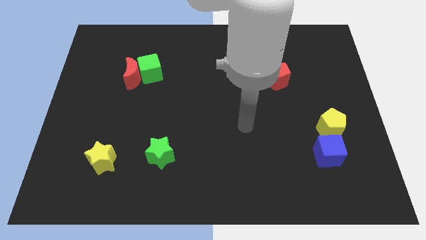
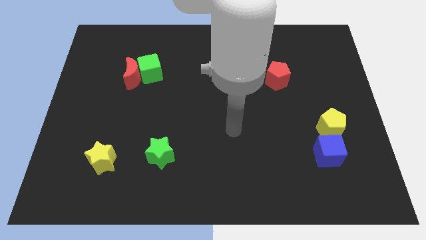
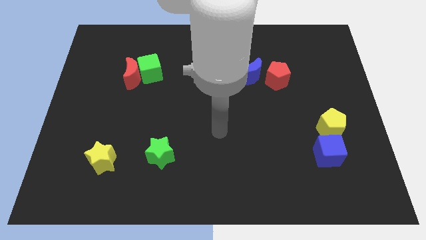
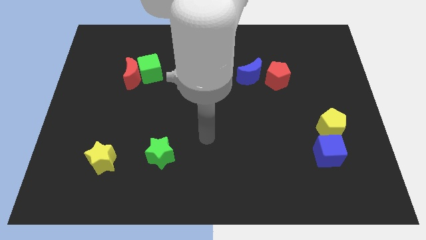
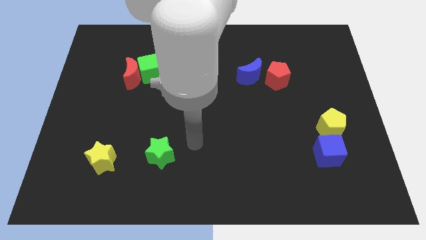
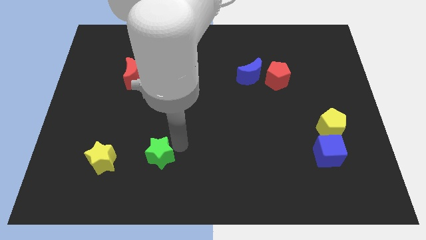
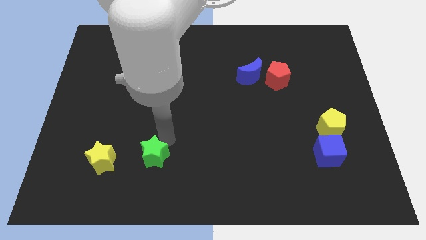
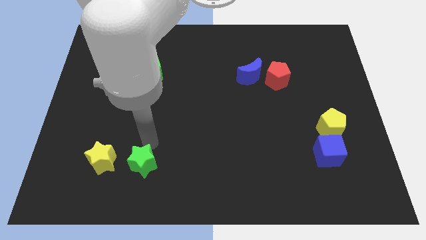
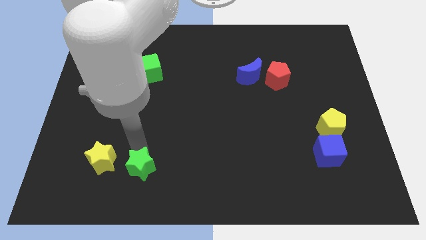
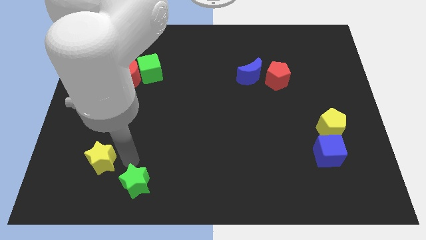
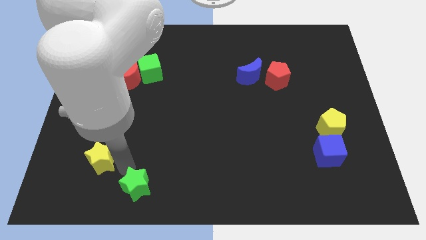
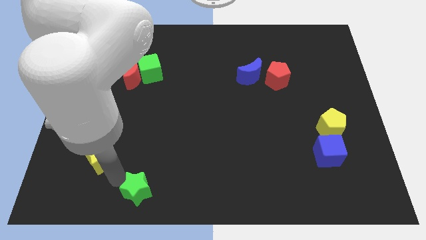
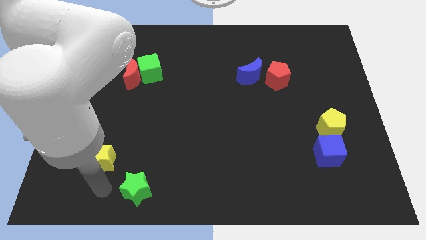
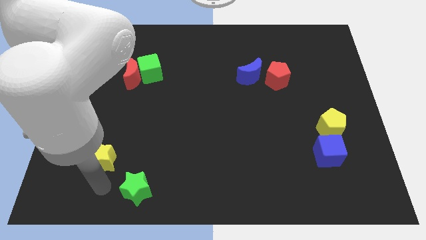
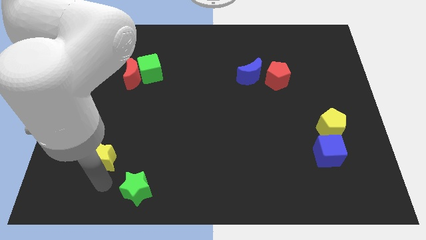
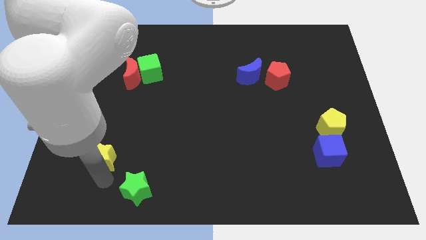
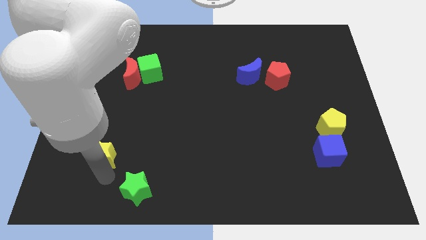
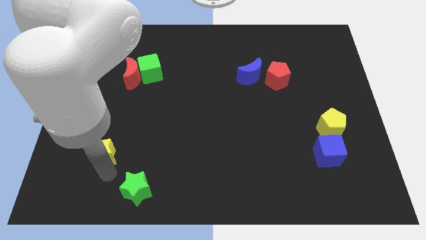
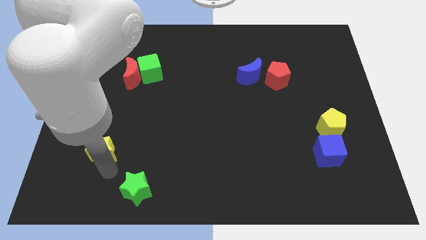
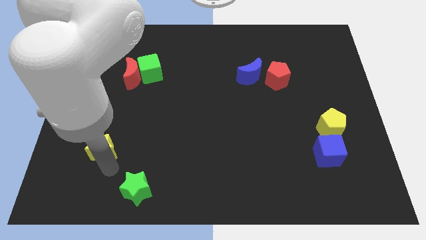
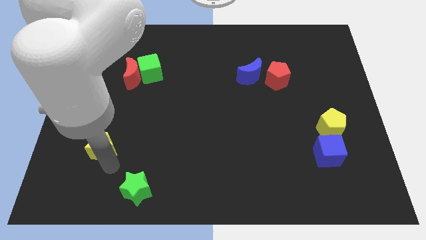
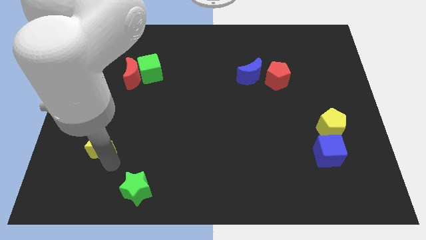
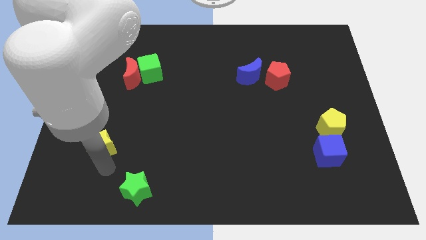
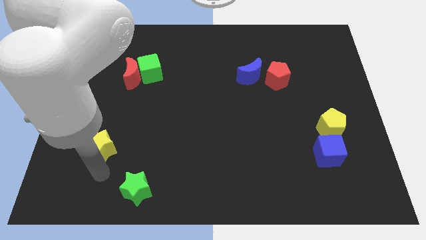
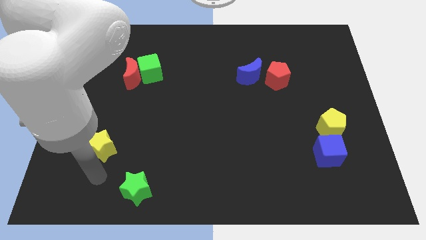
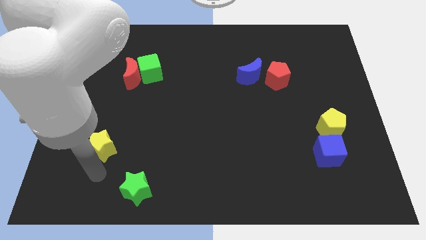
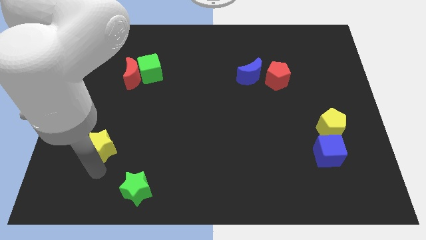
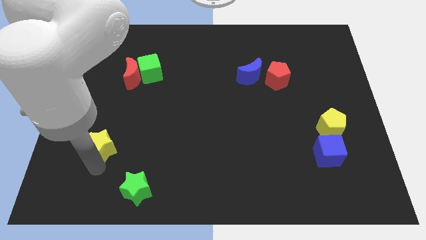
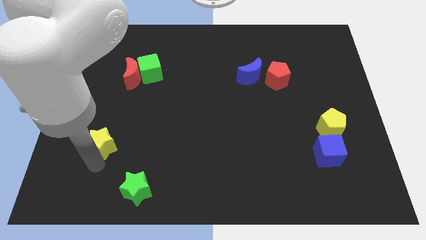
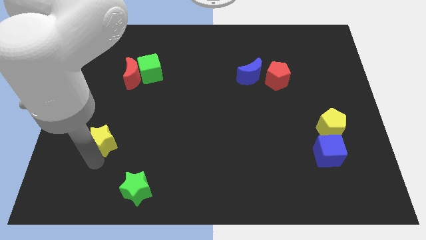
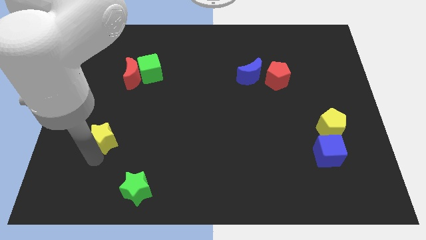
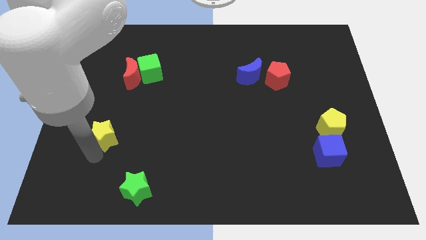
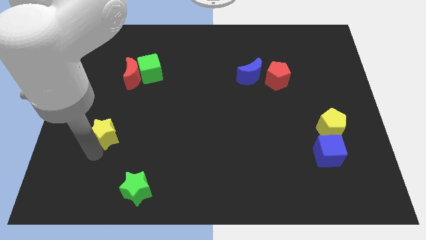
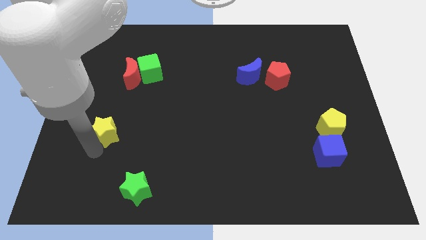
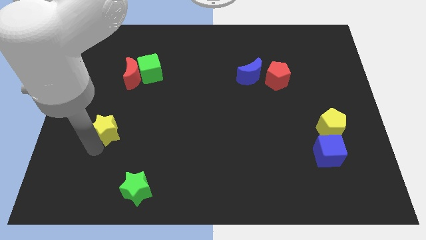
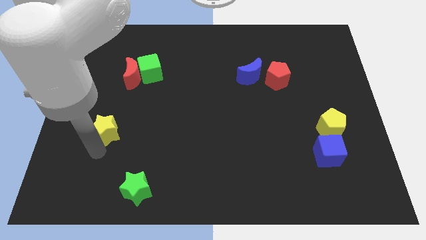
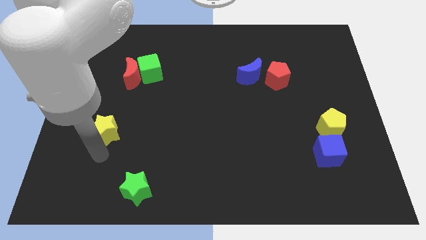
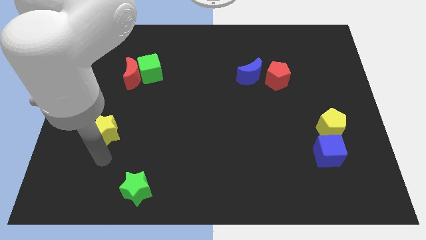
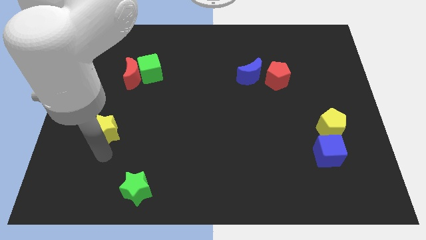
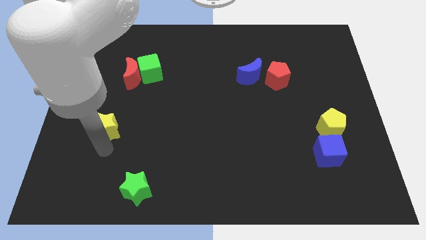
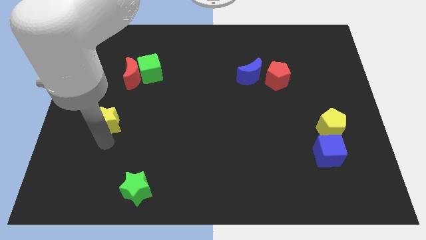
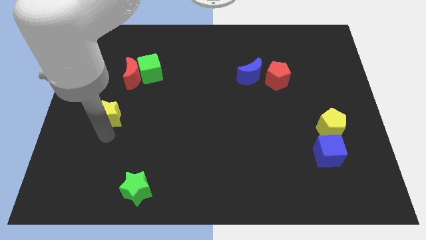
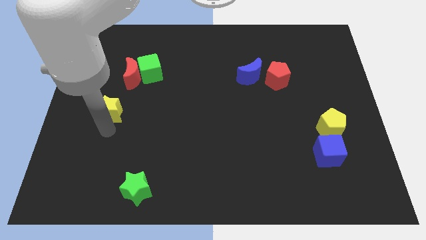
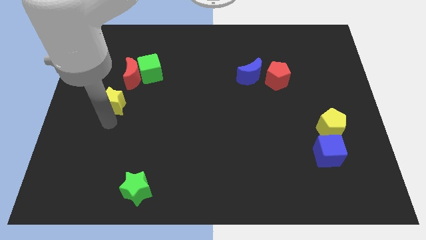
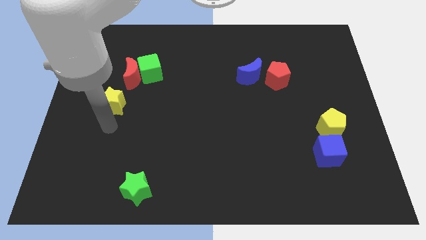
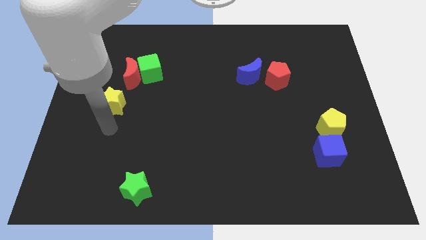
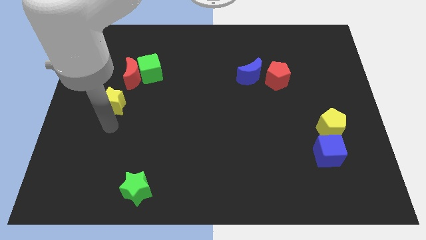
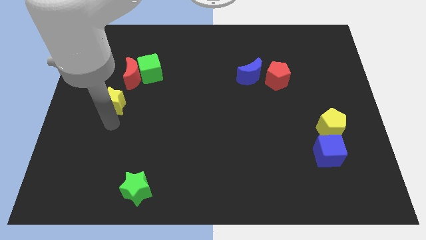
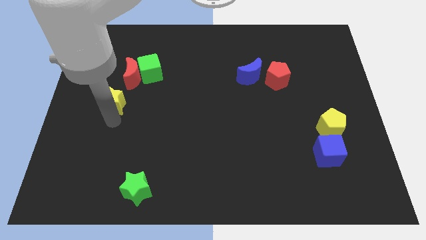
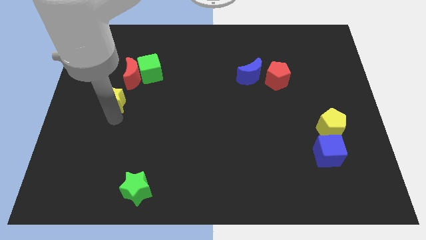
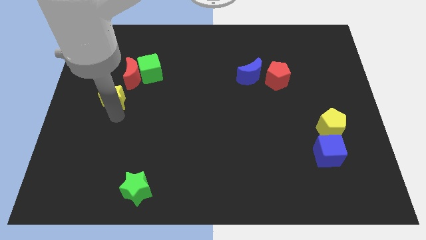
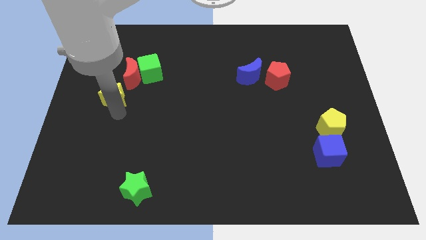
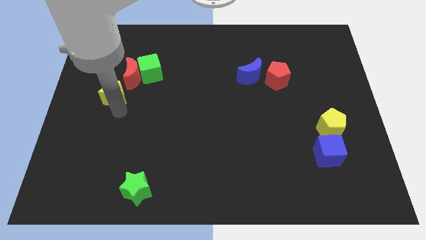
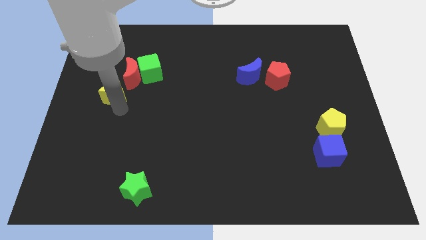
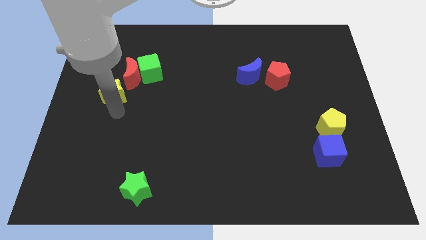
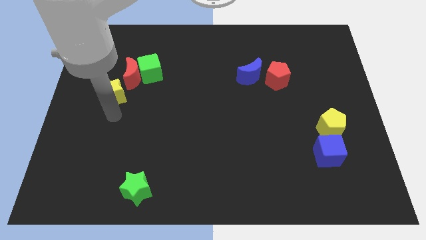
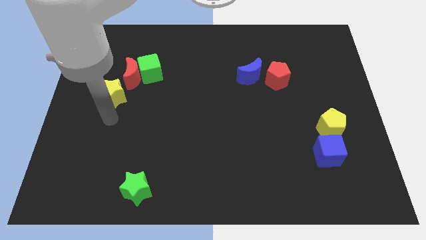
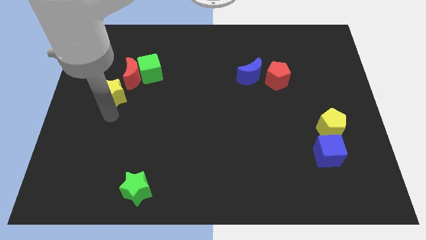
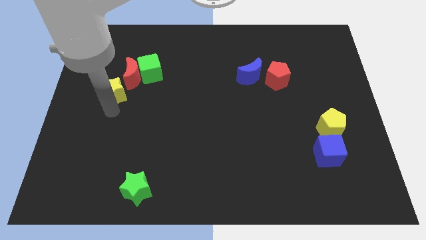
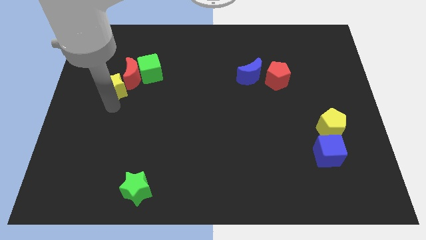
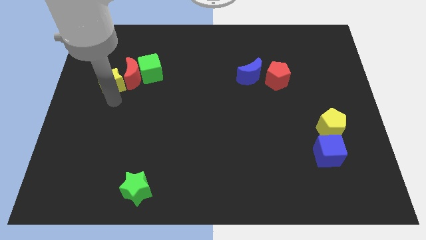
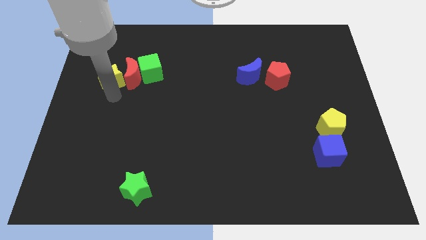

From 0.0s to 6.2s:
move the yellow star to the top left side of the red moon

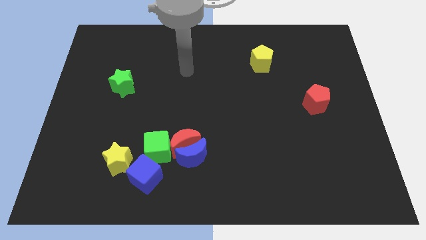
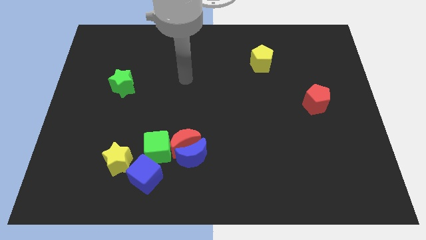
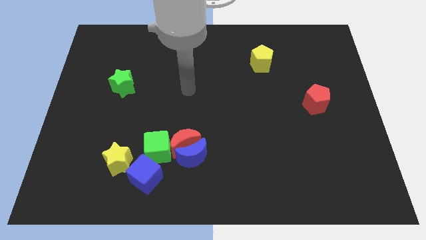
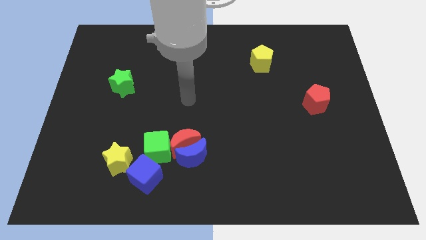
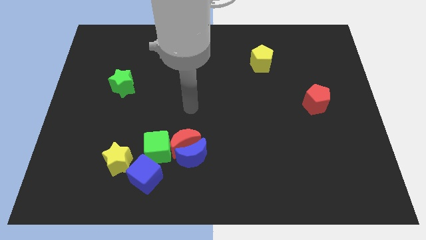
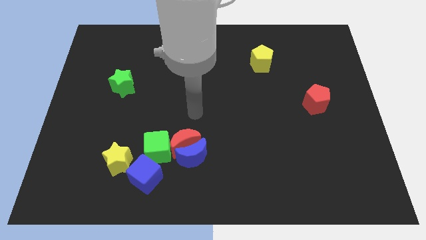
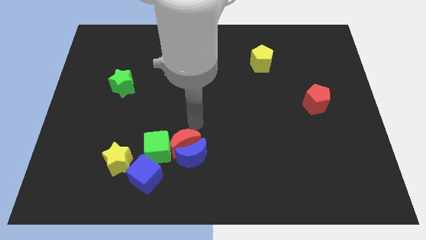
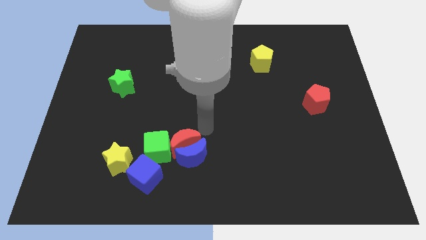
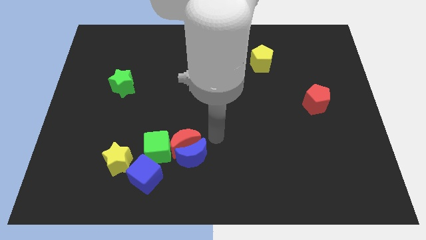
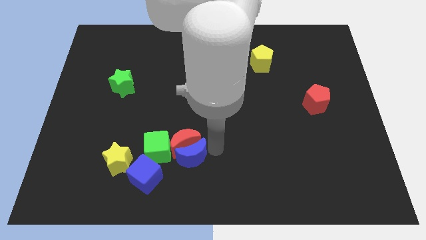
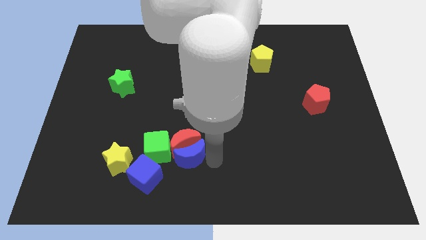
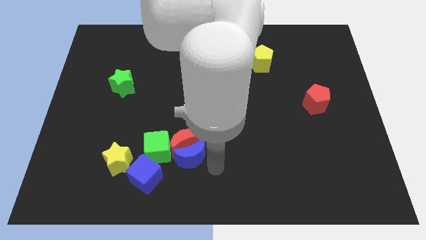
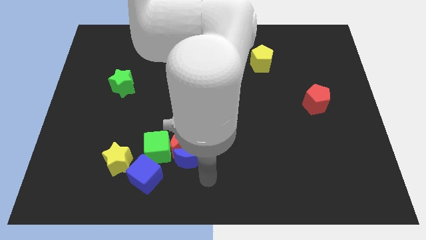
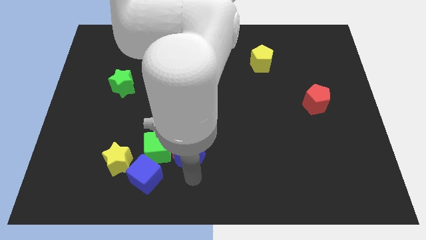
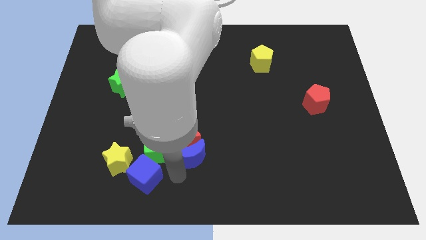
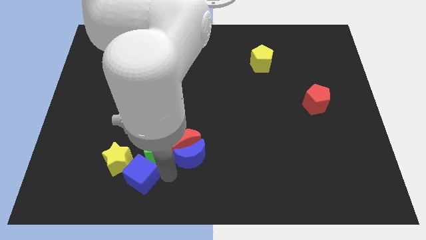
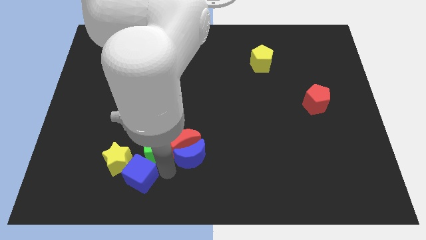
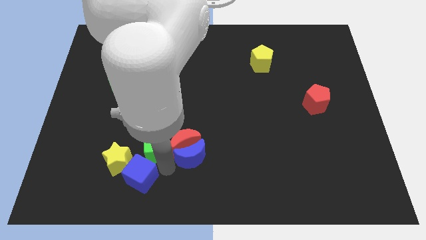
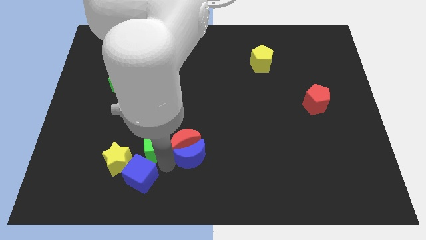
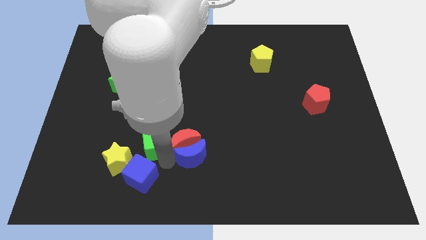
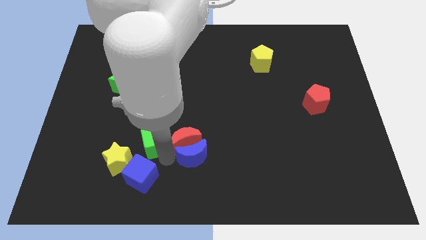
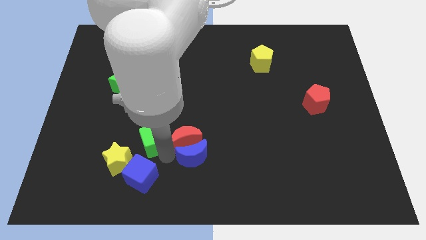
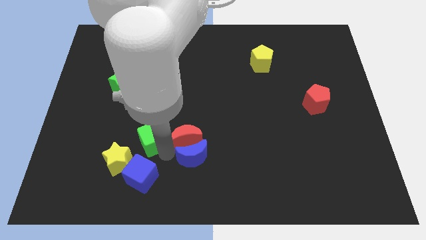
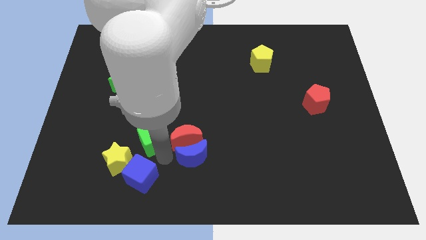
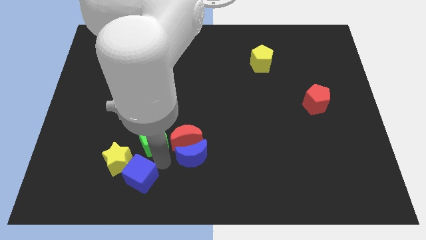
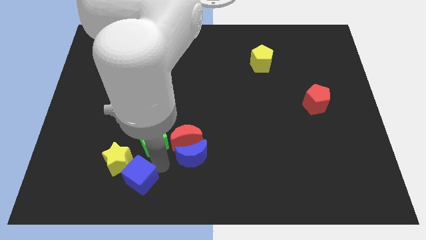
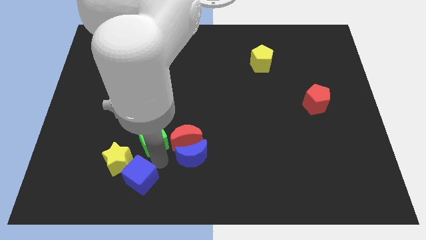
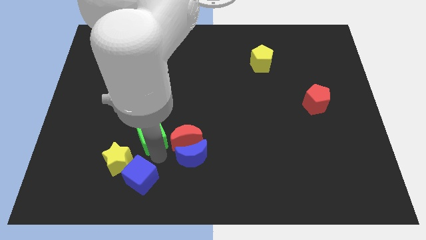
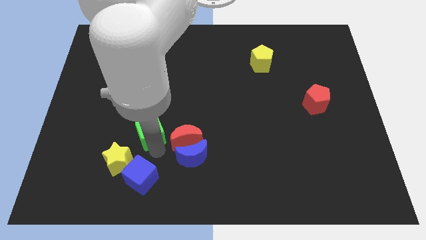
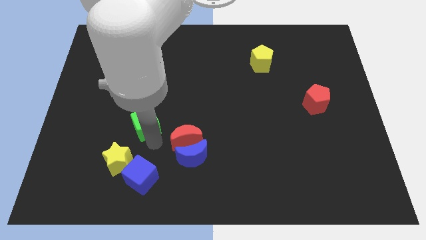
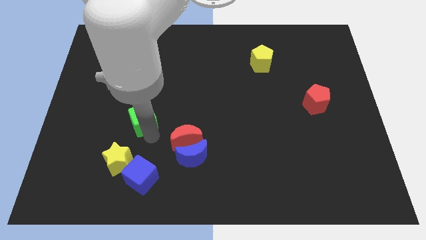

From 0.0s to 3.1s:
put the green cube to the bottom right of the green star
